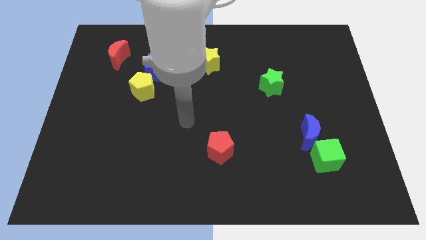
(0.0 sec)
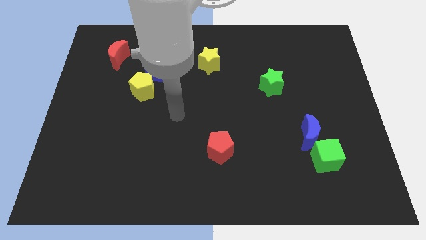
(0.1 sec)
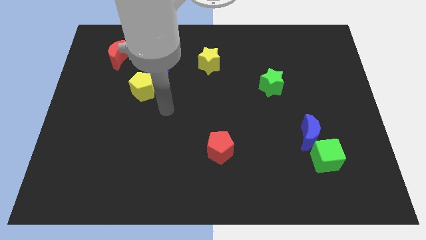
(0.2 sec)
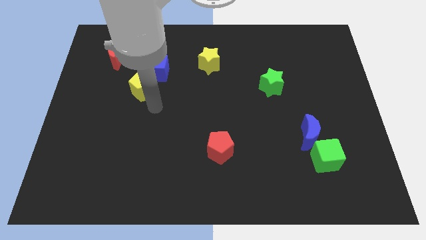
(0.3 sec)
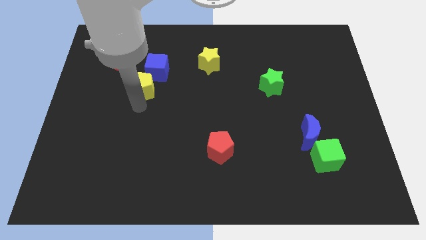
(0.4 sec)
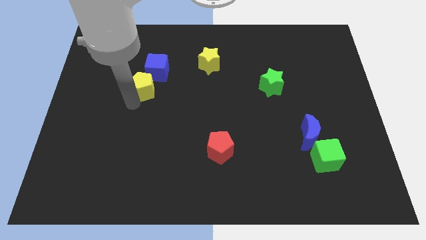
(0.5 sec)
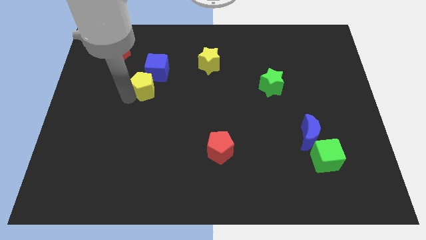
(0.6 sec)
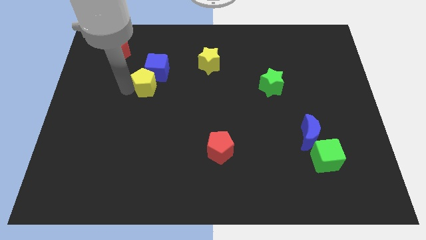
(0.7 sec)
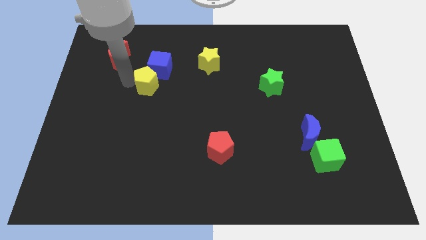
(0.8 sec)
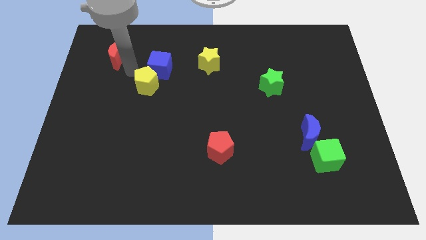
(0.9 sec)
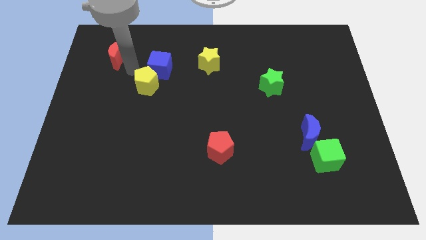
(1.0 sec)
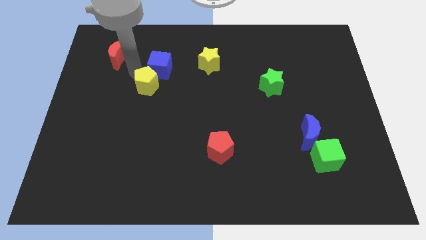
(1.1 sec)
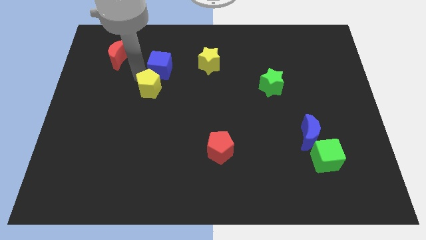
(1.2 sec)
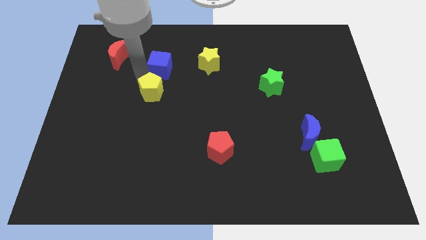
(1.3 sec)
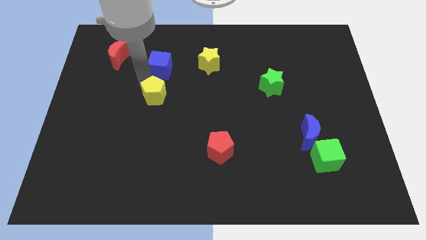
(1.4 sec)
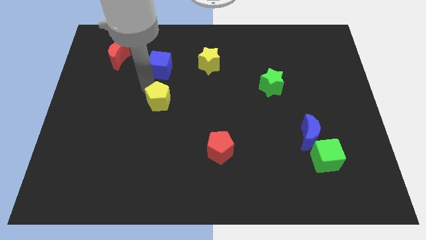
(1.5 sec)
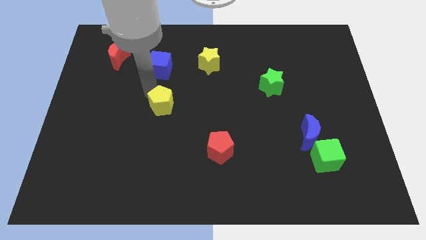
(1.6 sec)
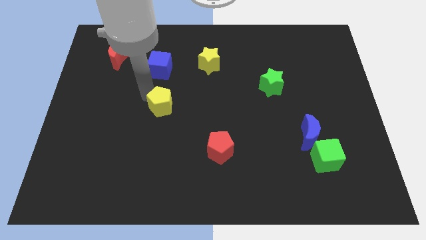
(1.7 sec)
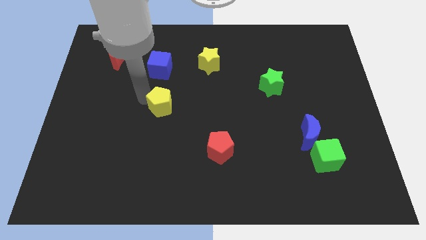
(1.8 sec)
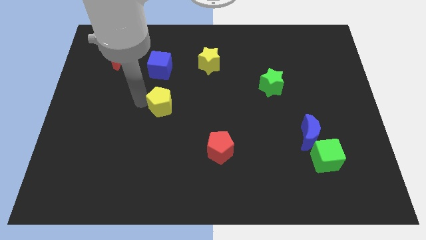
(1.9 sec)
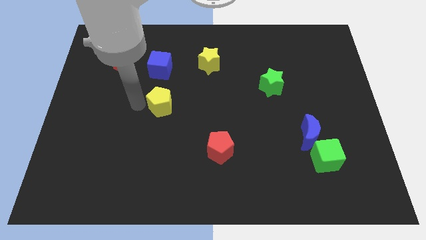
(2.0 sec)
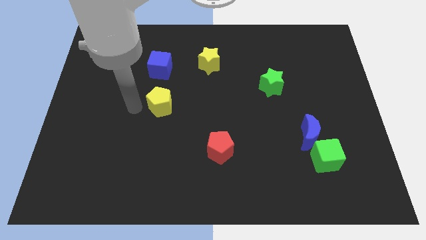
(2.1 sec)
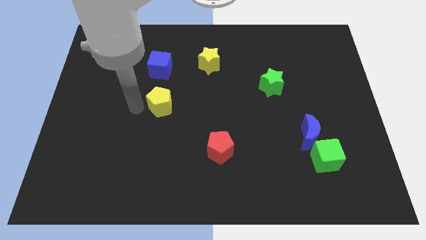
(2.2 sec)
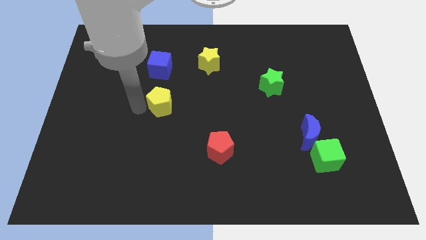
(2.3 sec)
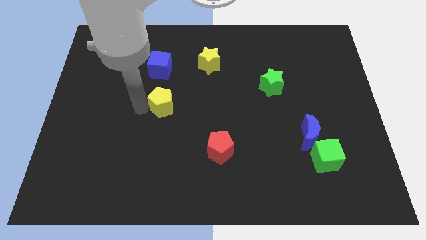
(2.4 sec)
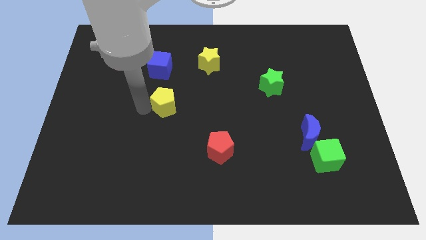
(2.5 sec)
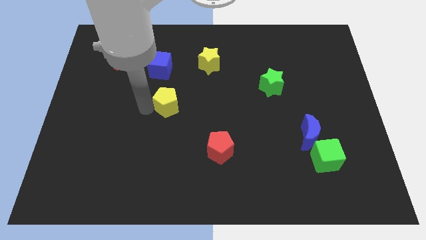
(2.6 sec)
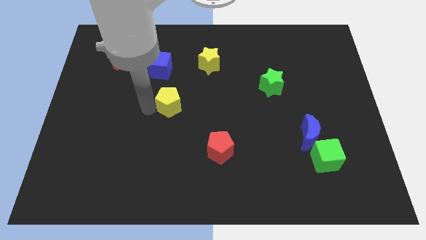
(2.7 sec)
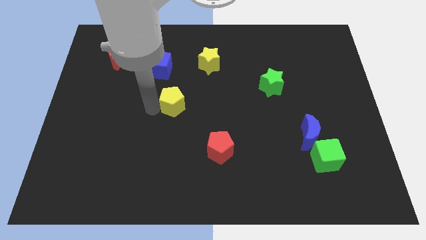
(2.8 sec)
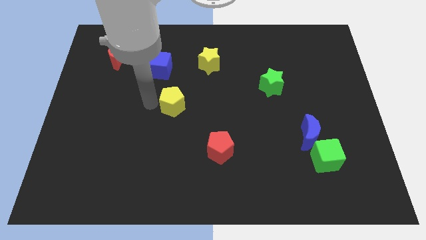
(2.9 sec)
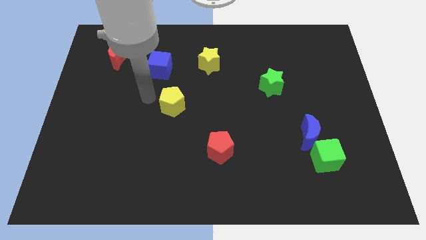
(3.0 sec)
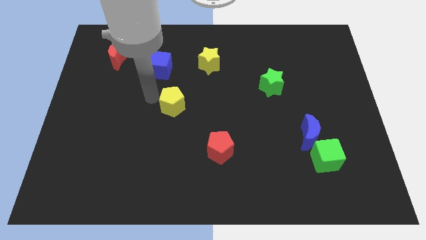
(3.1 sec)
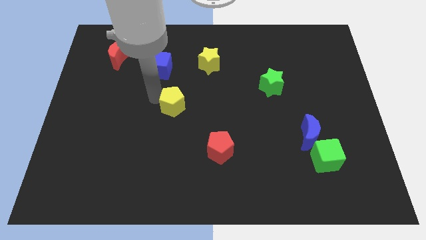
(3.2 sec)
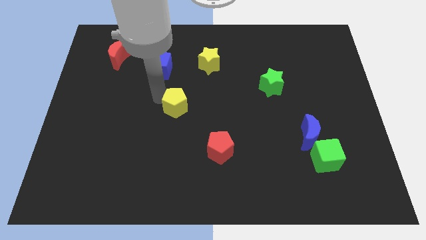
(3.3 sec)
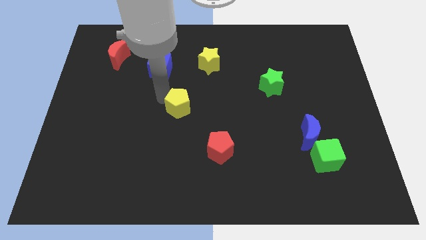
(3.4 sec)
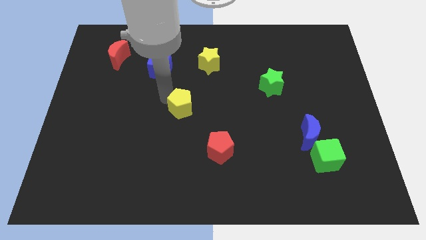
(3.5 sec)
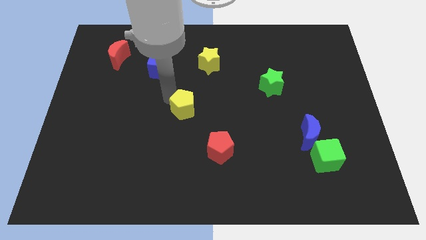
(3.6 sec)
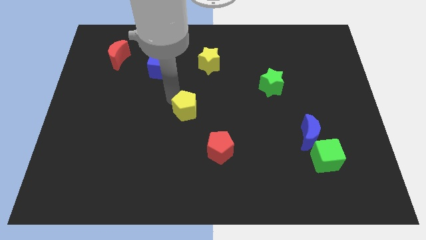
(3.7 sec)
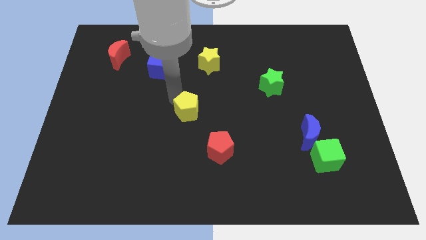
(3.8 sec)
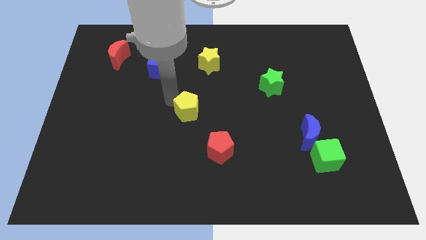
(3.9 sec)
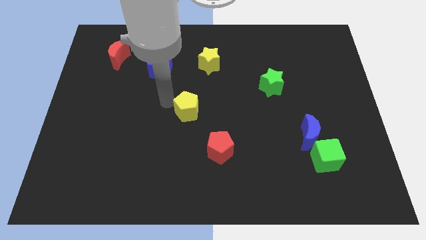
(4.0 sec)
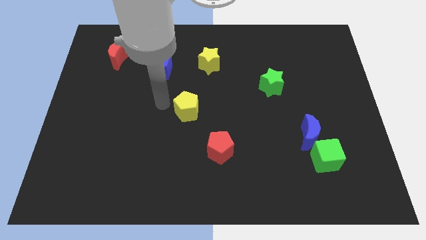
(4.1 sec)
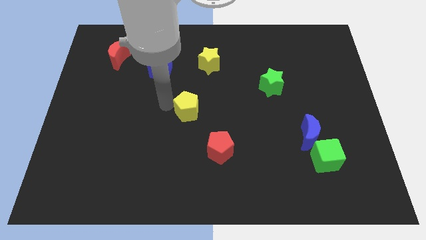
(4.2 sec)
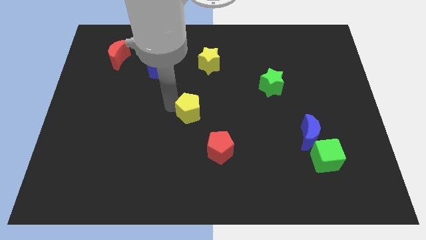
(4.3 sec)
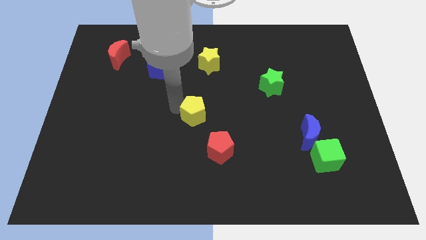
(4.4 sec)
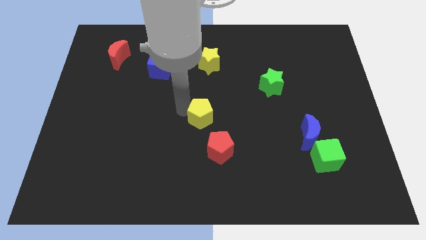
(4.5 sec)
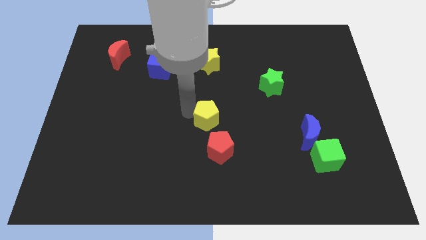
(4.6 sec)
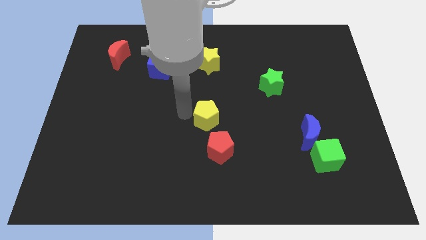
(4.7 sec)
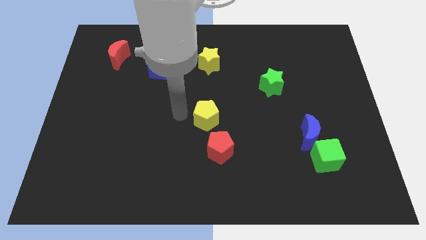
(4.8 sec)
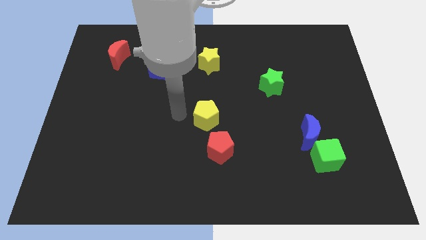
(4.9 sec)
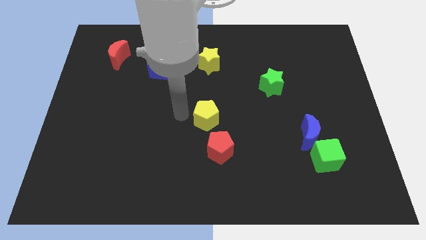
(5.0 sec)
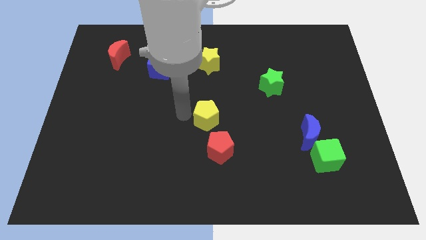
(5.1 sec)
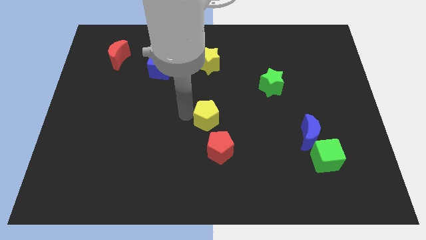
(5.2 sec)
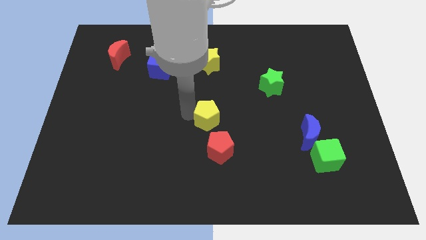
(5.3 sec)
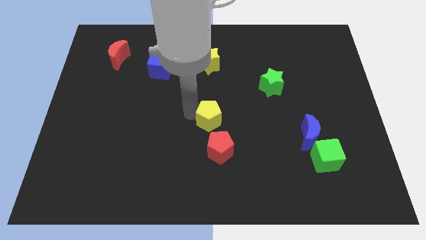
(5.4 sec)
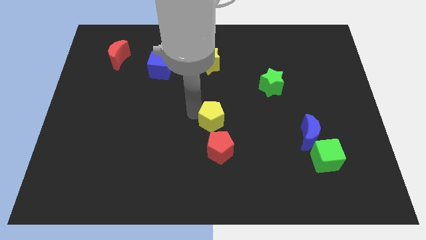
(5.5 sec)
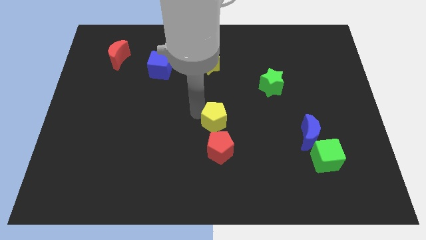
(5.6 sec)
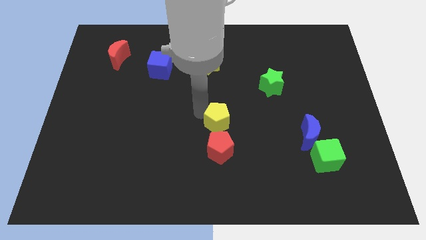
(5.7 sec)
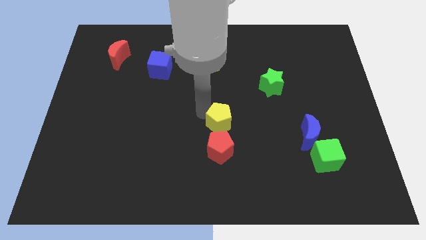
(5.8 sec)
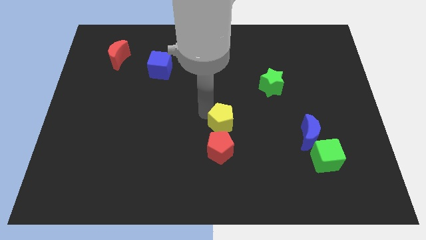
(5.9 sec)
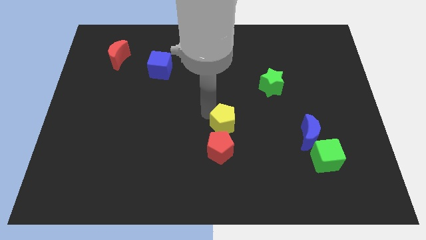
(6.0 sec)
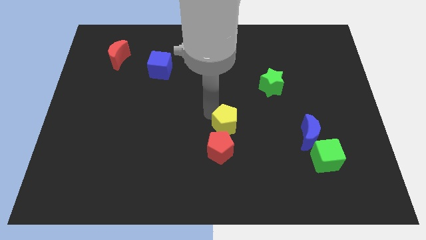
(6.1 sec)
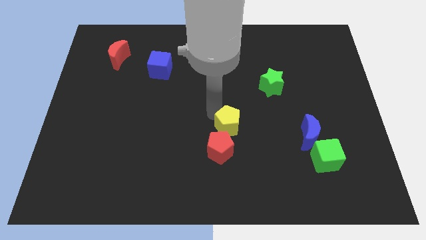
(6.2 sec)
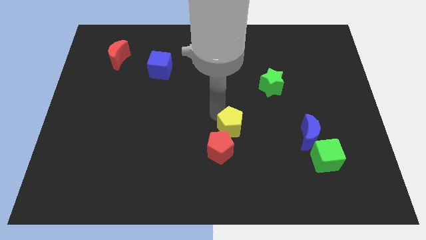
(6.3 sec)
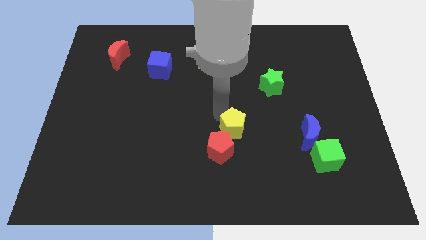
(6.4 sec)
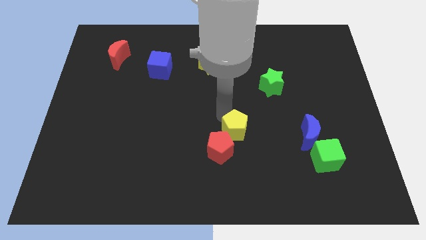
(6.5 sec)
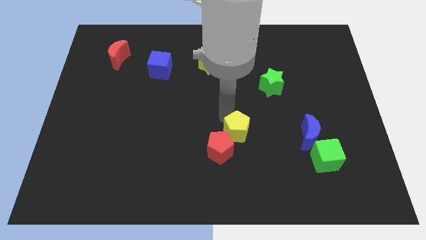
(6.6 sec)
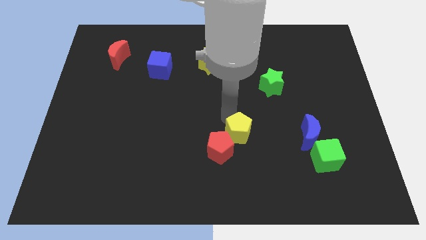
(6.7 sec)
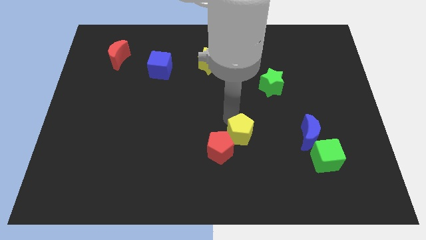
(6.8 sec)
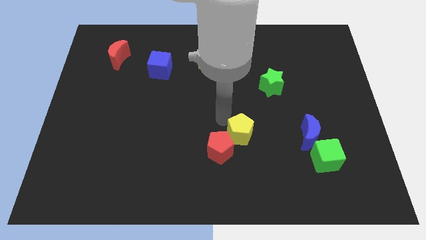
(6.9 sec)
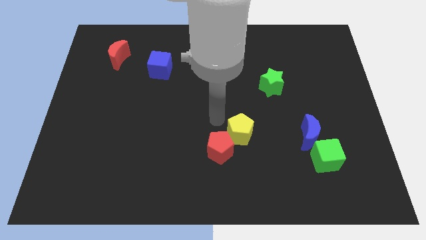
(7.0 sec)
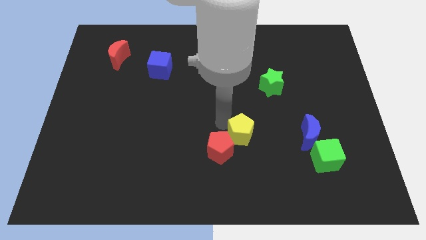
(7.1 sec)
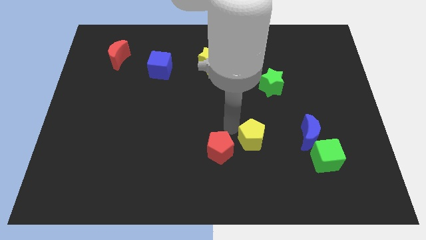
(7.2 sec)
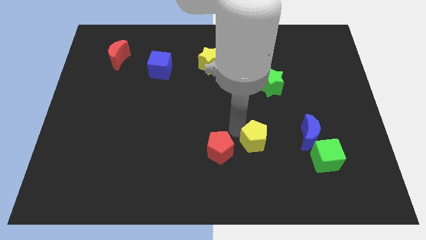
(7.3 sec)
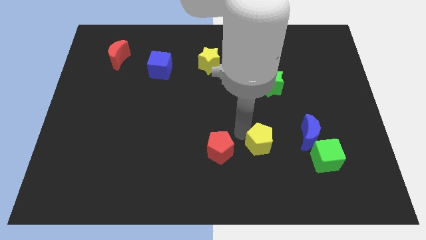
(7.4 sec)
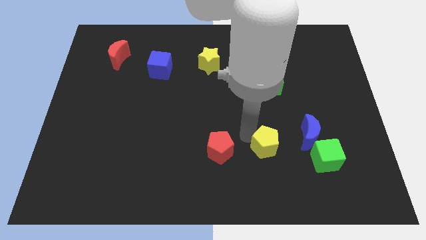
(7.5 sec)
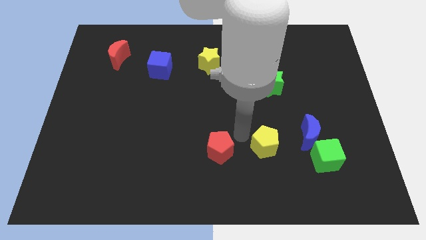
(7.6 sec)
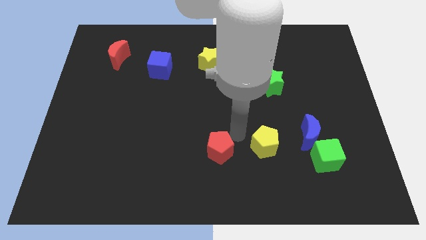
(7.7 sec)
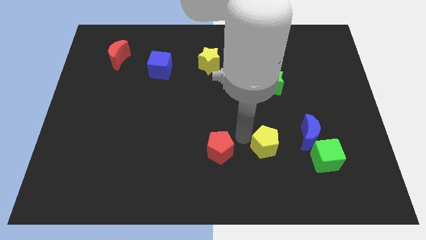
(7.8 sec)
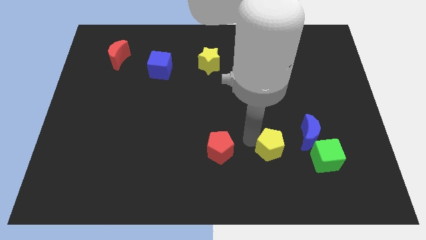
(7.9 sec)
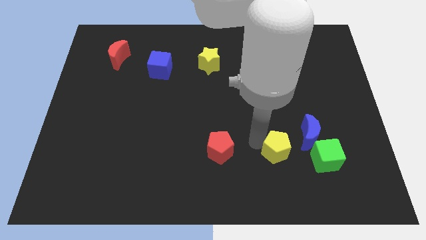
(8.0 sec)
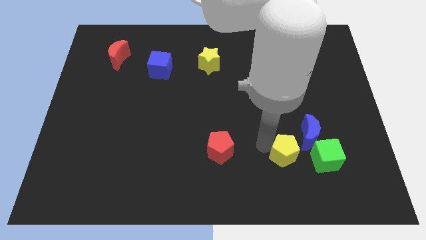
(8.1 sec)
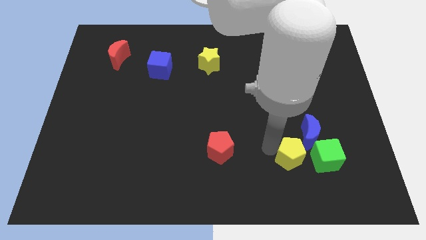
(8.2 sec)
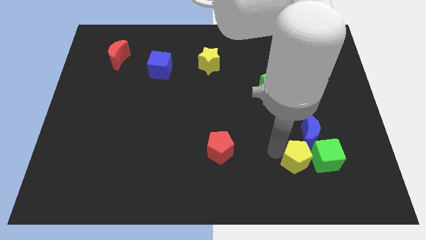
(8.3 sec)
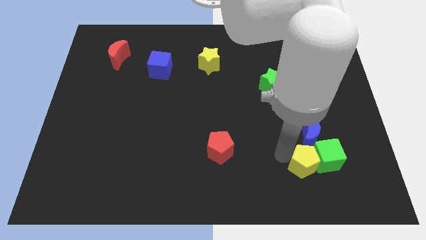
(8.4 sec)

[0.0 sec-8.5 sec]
slide the yellow pentagon to the green cube
